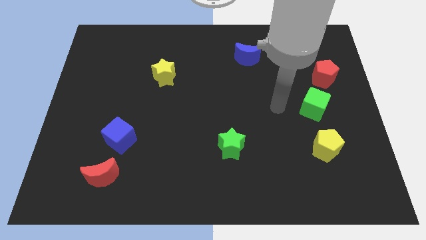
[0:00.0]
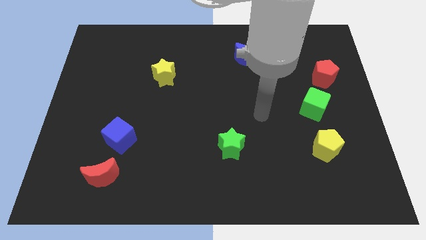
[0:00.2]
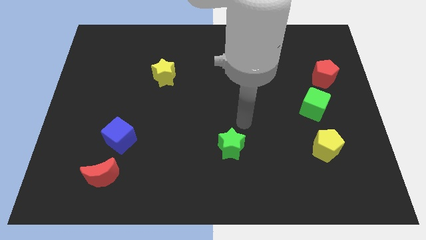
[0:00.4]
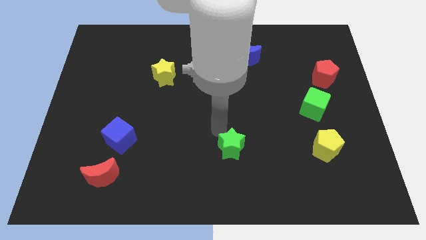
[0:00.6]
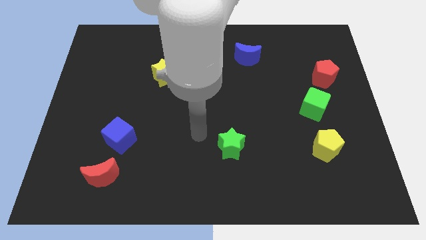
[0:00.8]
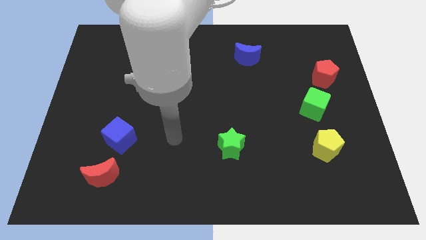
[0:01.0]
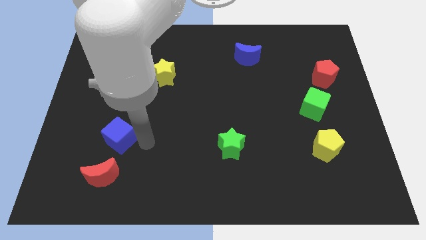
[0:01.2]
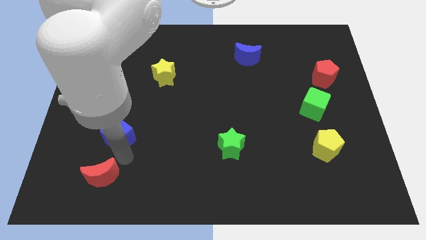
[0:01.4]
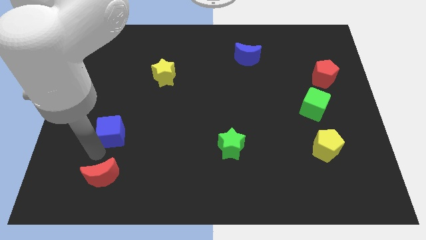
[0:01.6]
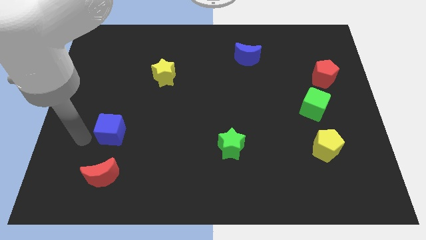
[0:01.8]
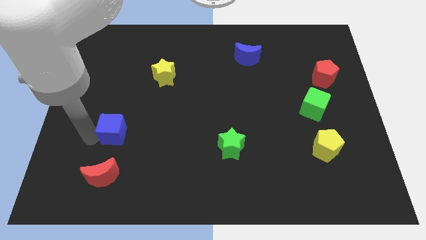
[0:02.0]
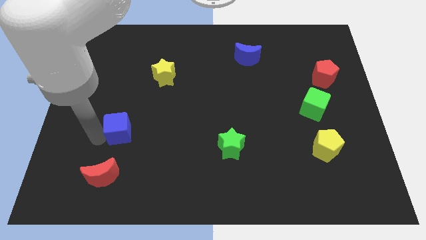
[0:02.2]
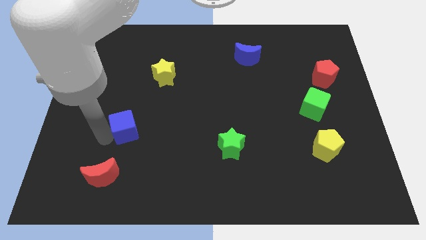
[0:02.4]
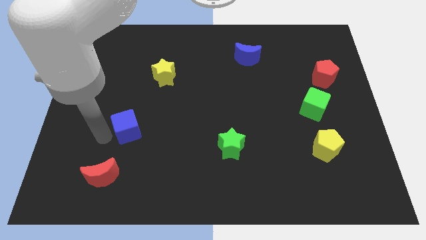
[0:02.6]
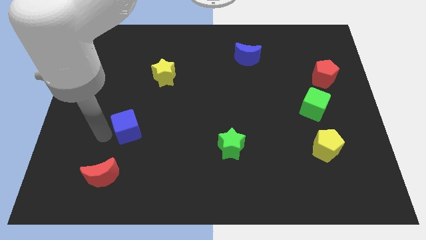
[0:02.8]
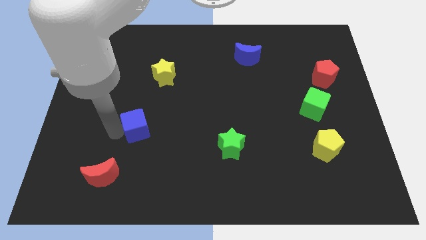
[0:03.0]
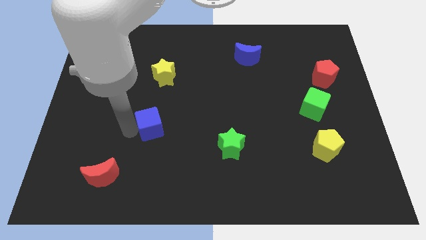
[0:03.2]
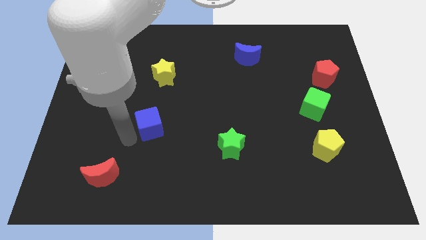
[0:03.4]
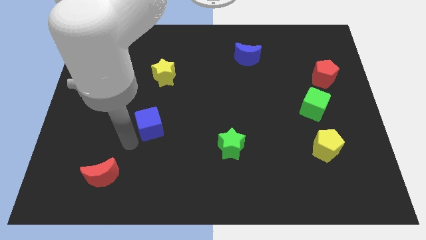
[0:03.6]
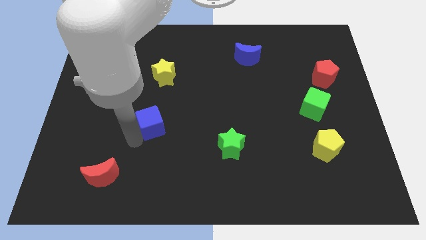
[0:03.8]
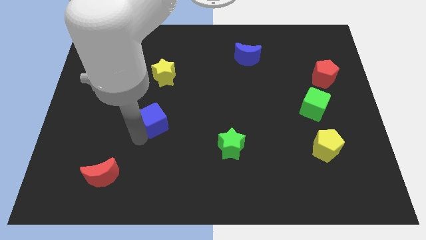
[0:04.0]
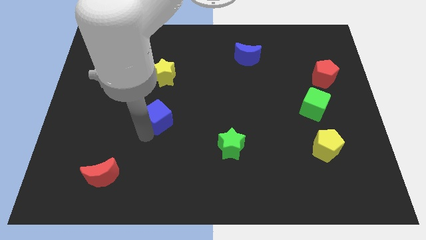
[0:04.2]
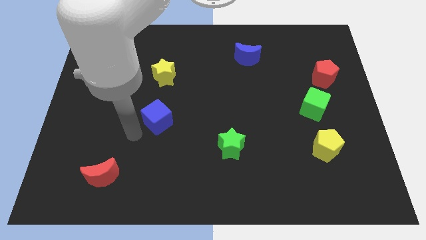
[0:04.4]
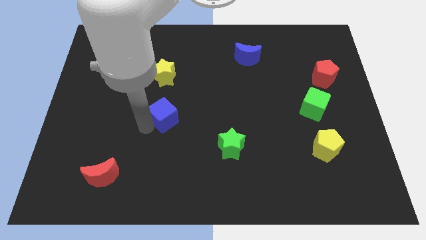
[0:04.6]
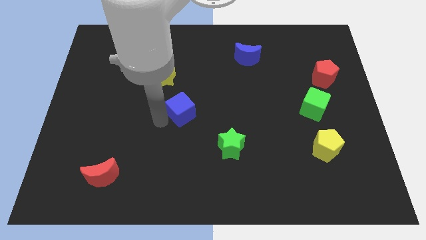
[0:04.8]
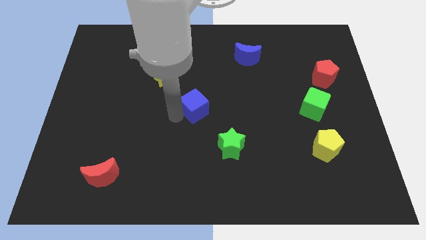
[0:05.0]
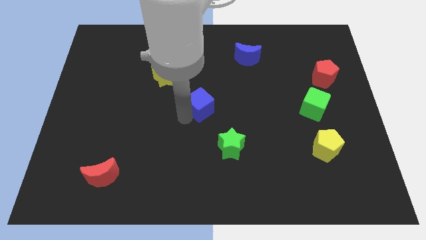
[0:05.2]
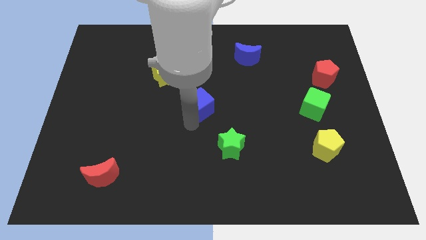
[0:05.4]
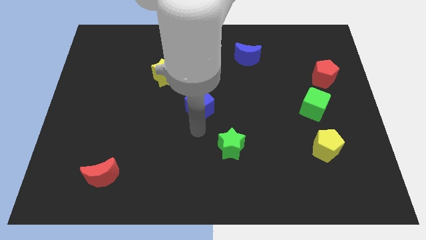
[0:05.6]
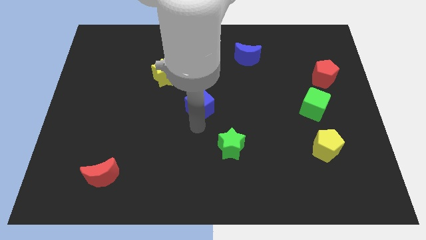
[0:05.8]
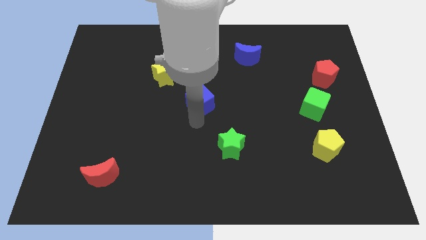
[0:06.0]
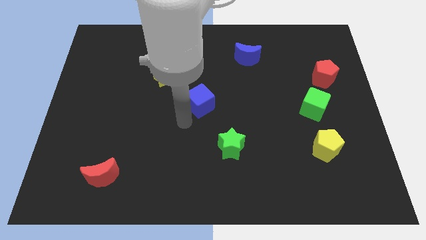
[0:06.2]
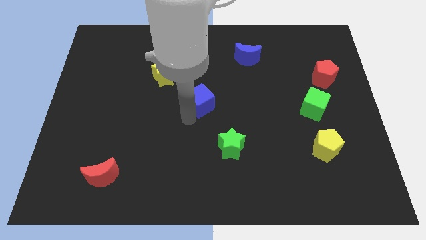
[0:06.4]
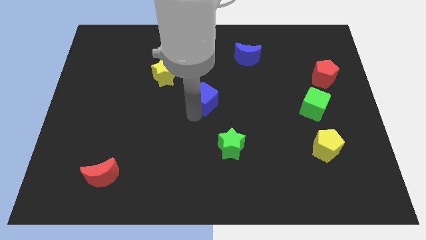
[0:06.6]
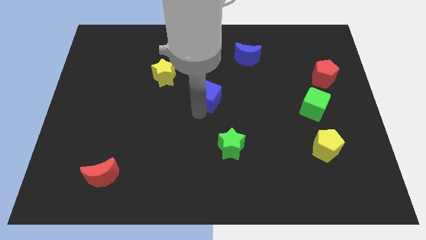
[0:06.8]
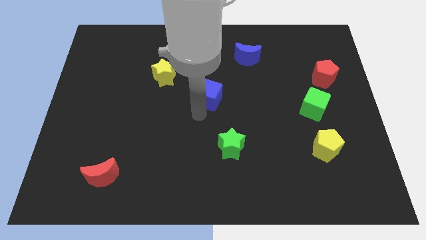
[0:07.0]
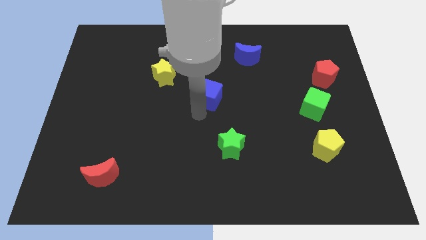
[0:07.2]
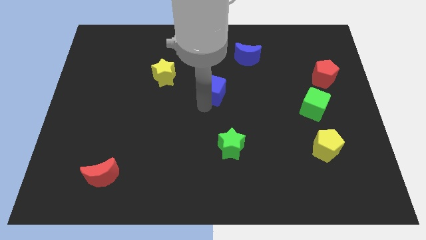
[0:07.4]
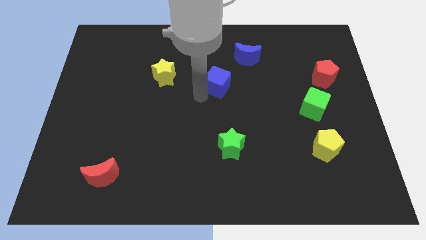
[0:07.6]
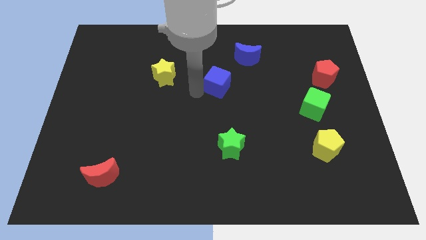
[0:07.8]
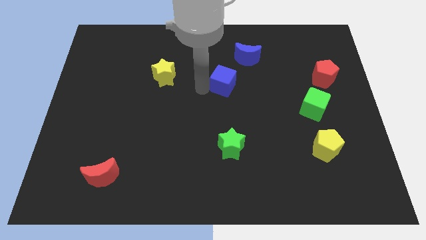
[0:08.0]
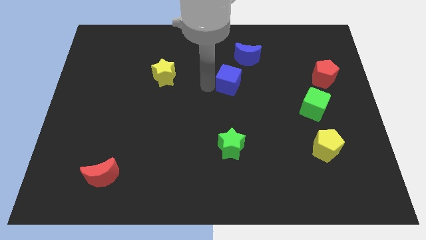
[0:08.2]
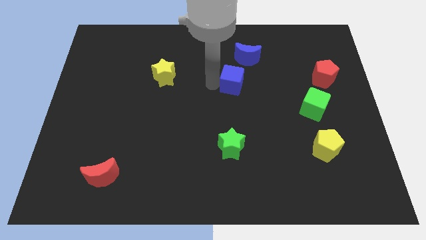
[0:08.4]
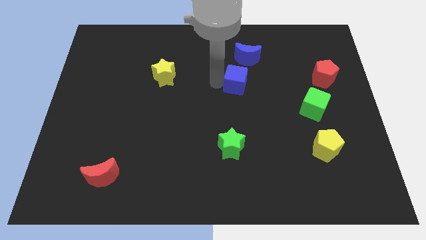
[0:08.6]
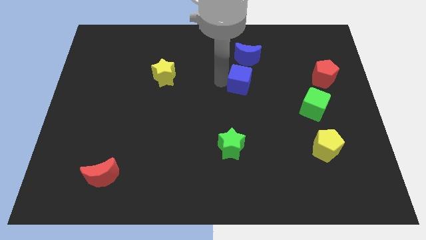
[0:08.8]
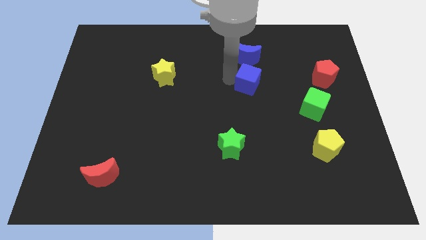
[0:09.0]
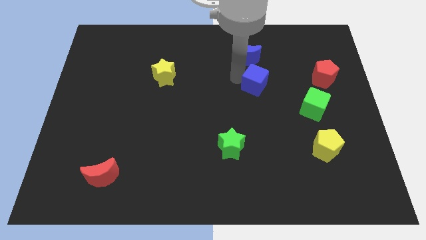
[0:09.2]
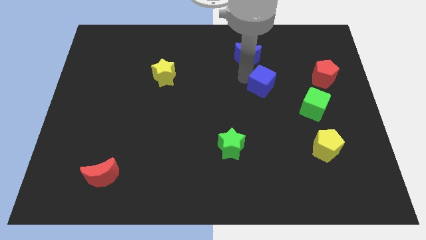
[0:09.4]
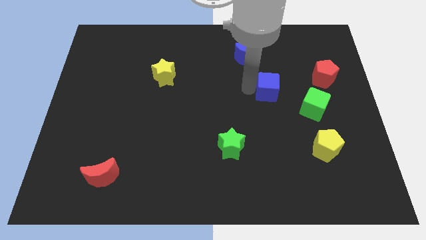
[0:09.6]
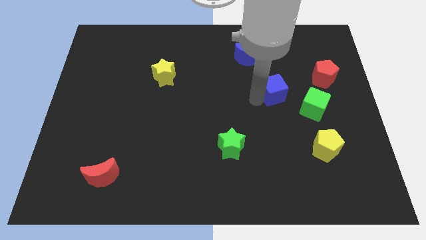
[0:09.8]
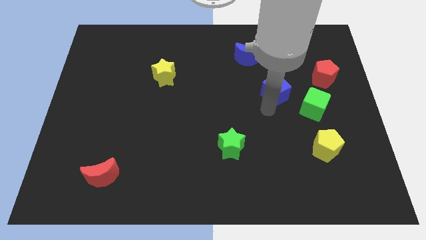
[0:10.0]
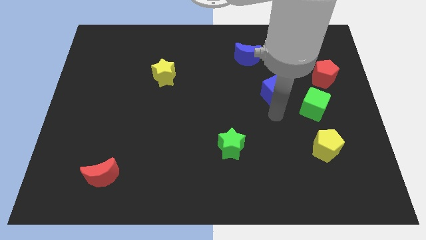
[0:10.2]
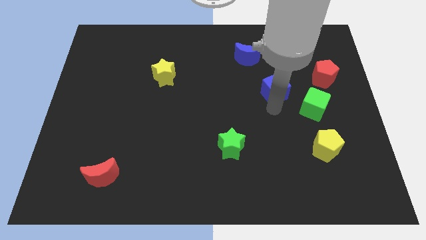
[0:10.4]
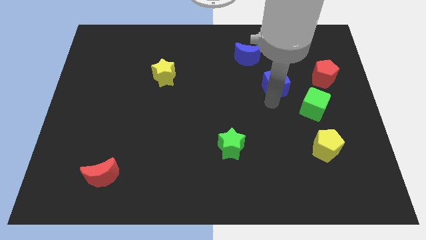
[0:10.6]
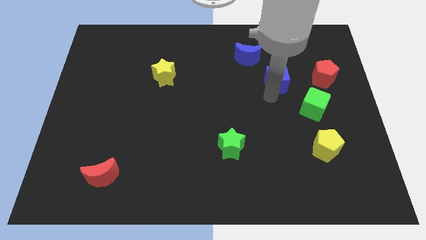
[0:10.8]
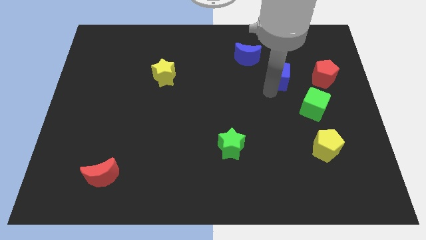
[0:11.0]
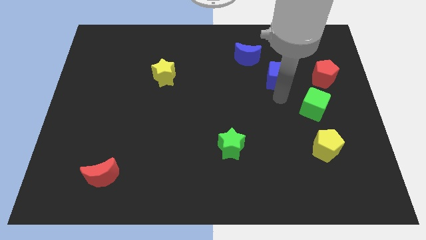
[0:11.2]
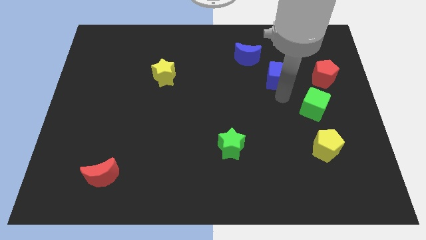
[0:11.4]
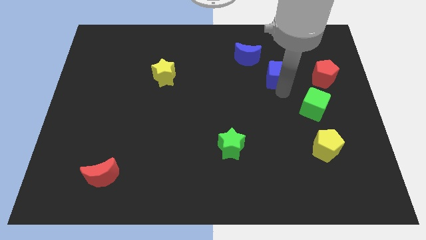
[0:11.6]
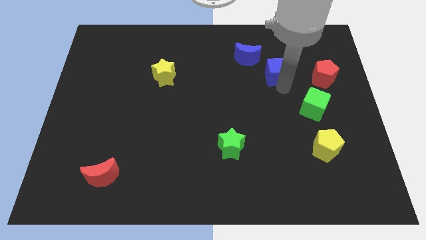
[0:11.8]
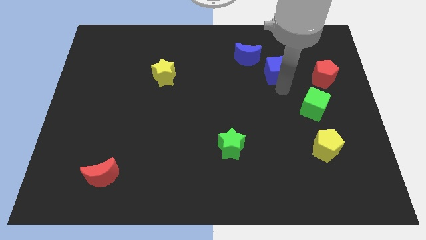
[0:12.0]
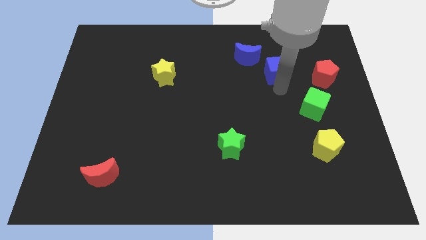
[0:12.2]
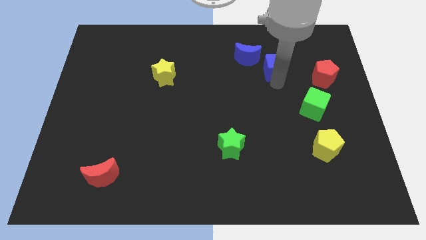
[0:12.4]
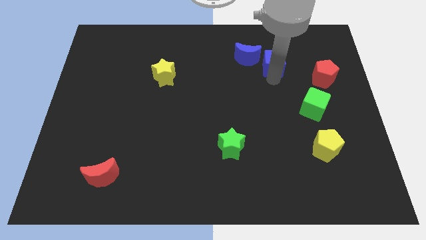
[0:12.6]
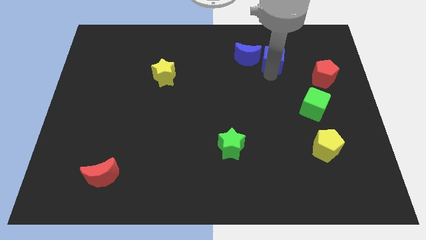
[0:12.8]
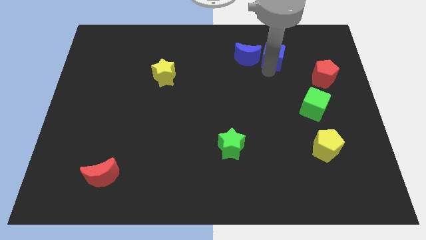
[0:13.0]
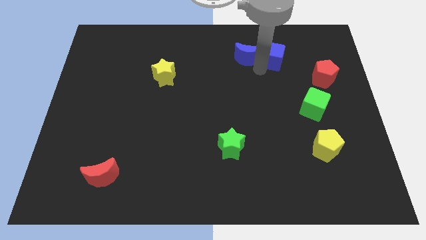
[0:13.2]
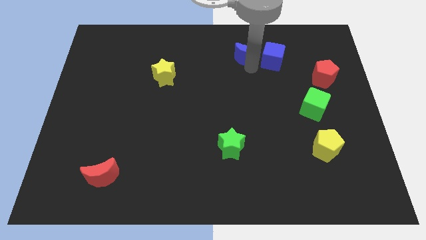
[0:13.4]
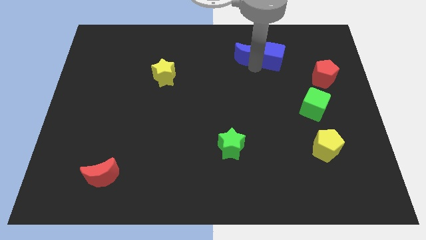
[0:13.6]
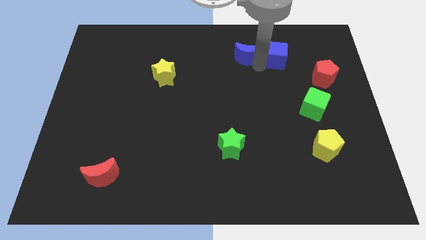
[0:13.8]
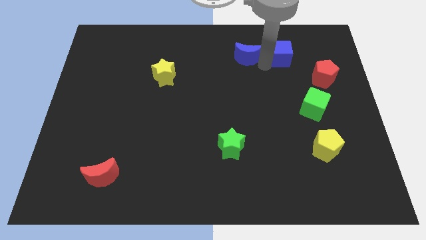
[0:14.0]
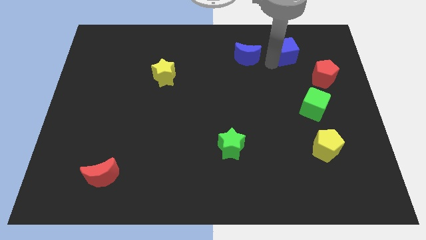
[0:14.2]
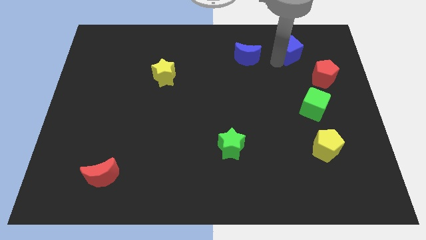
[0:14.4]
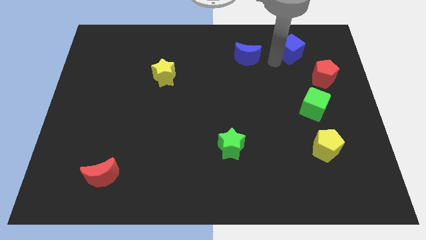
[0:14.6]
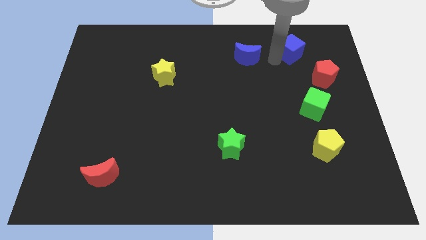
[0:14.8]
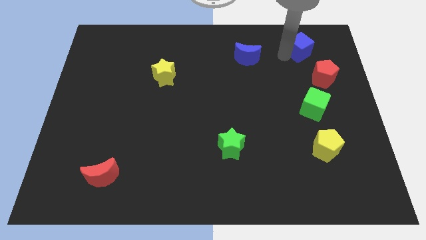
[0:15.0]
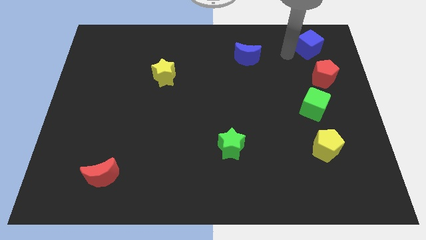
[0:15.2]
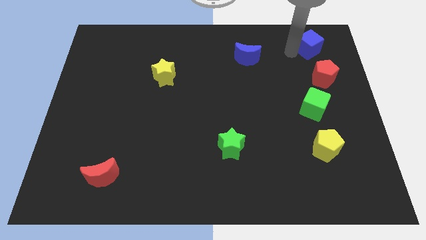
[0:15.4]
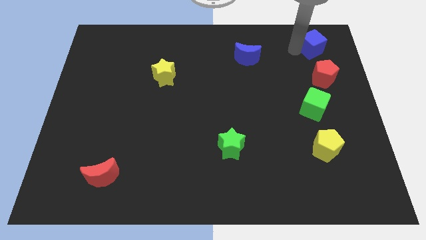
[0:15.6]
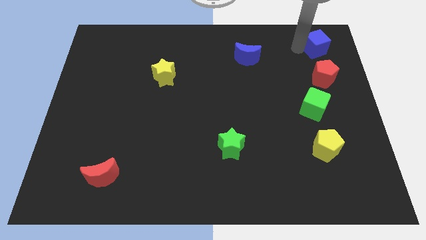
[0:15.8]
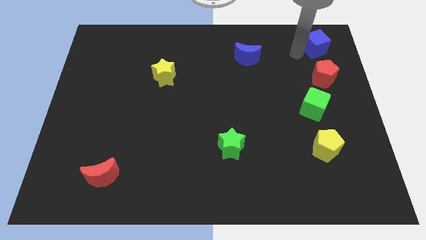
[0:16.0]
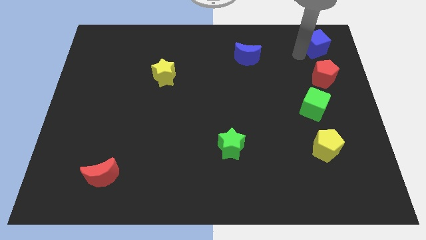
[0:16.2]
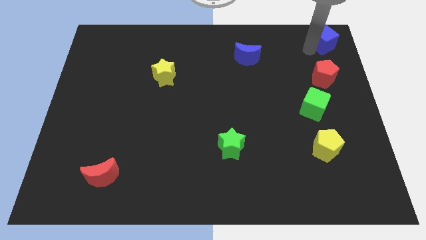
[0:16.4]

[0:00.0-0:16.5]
put the blue cube to the upper right corner
